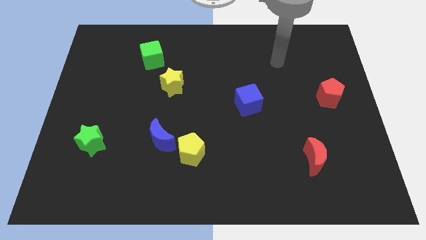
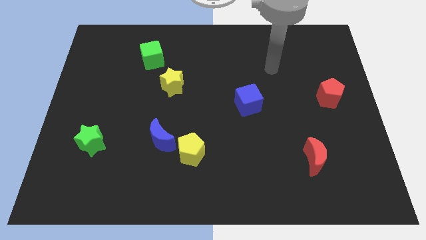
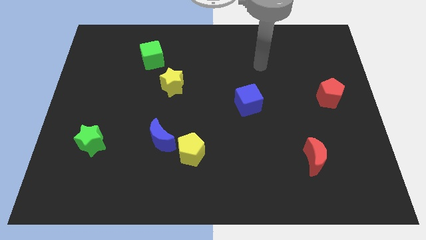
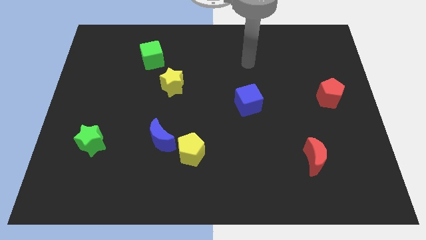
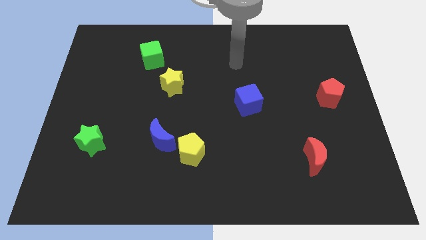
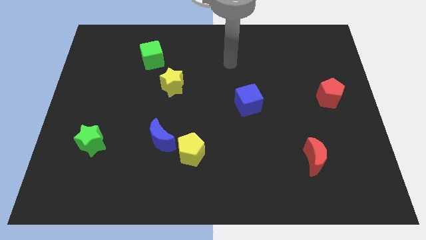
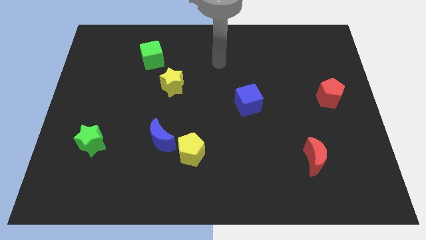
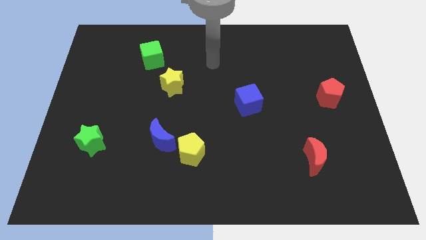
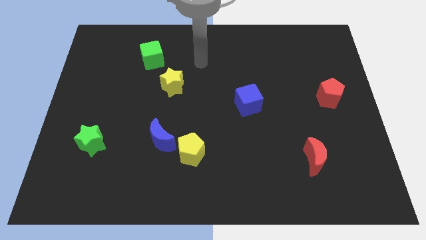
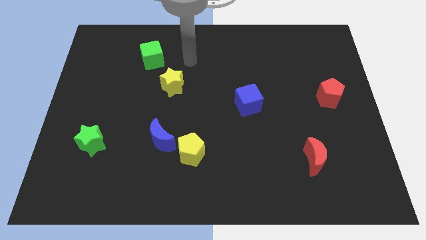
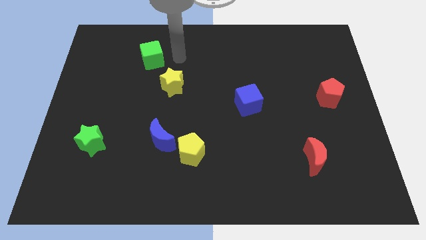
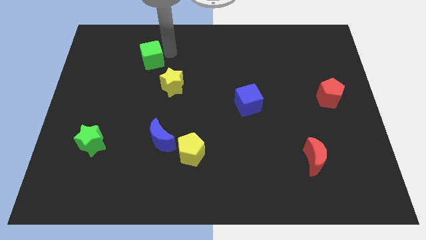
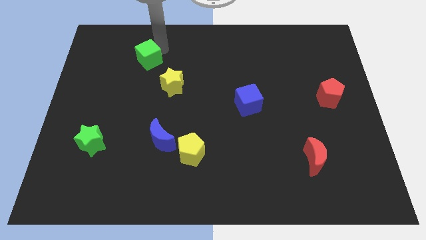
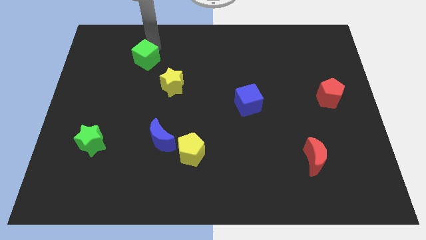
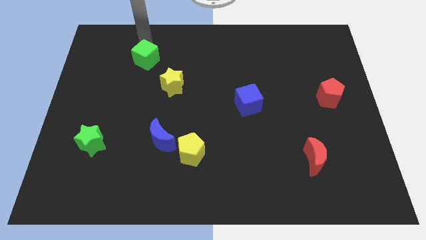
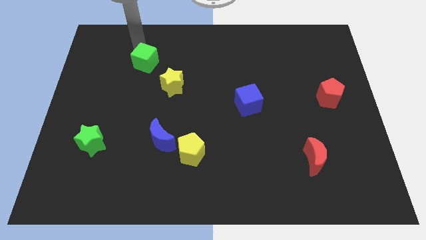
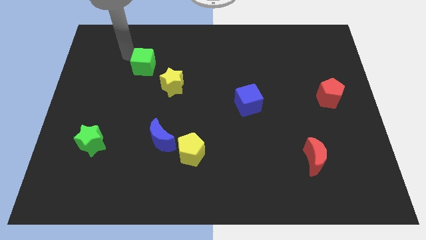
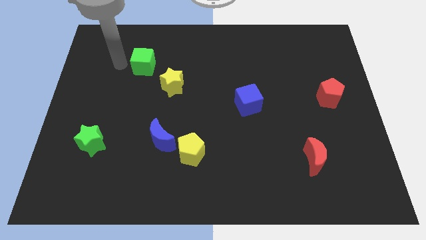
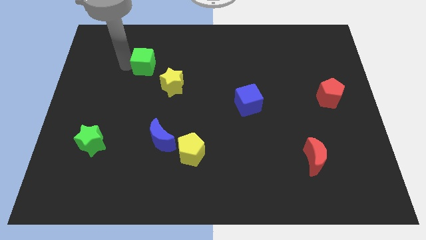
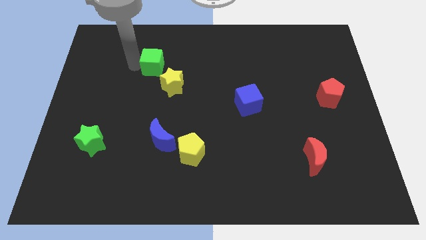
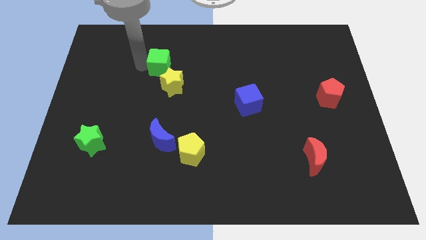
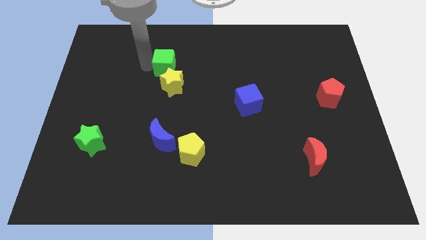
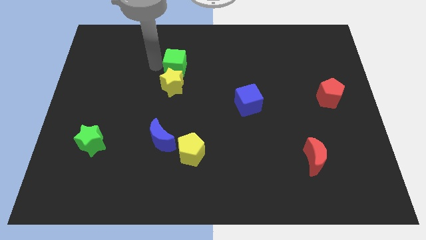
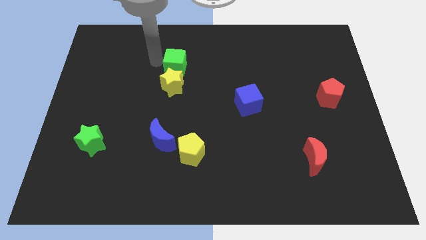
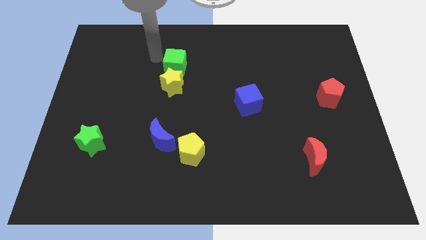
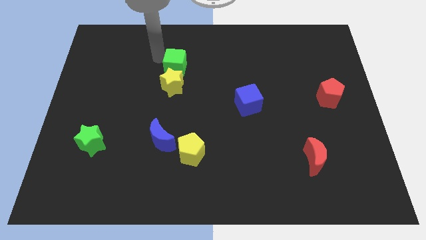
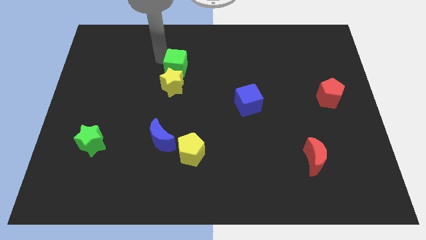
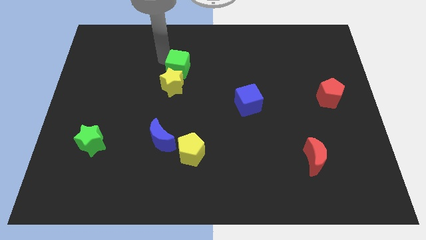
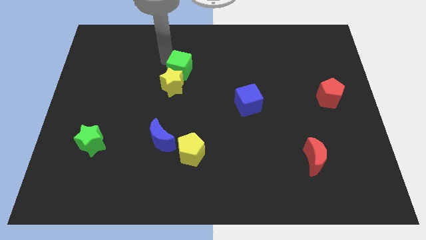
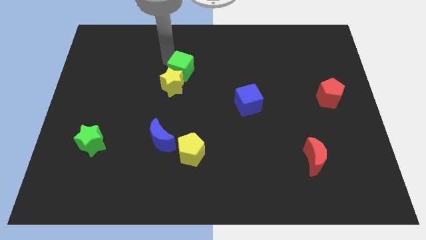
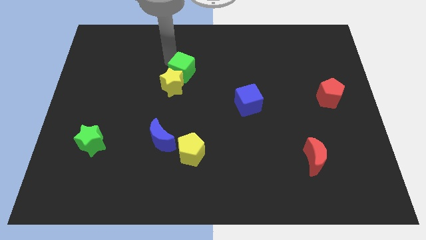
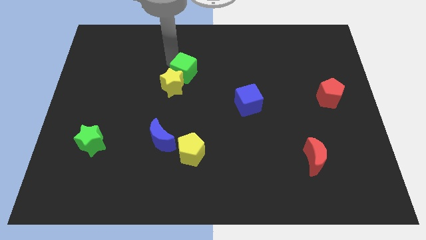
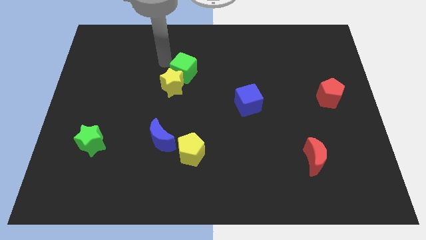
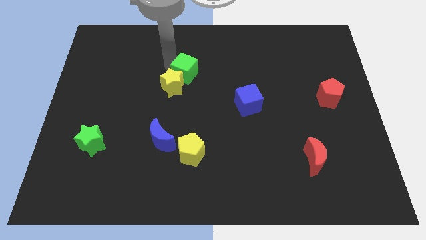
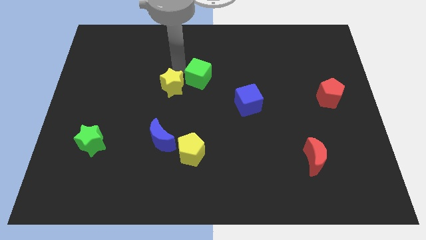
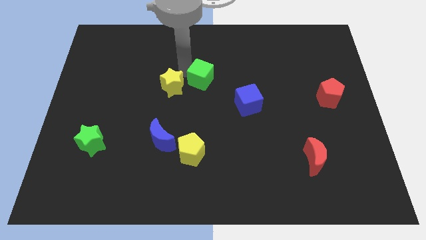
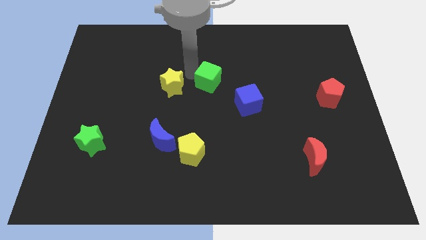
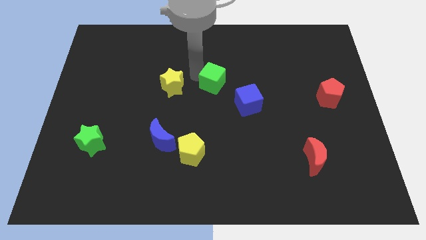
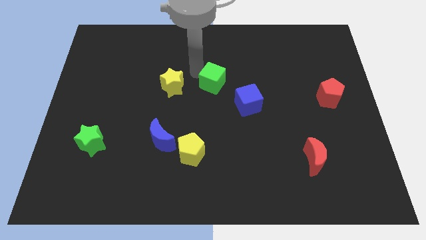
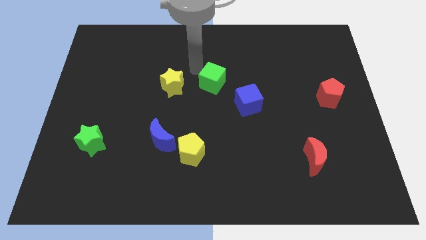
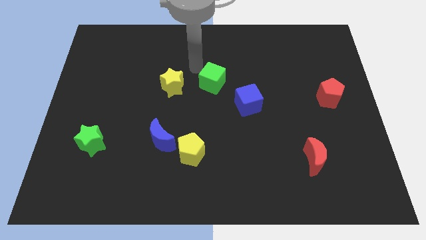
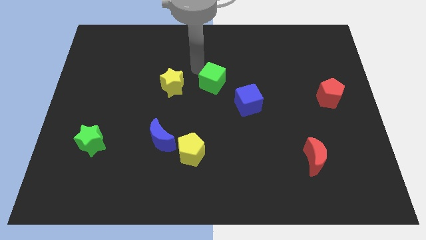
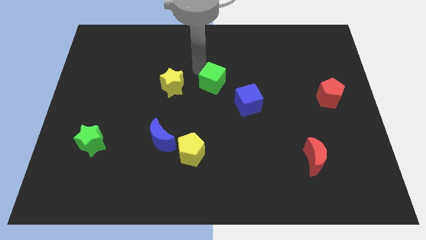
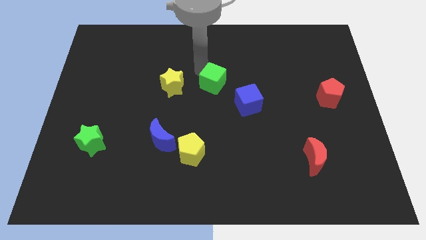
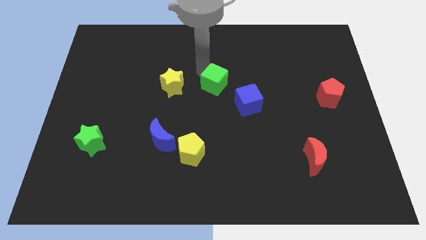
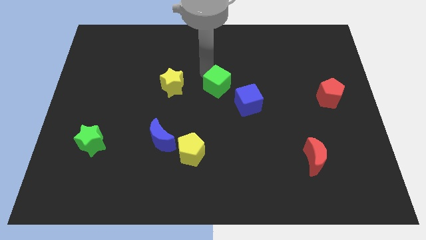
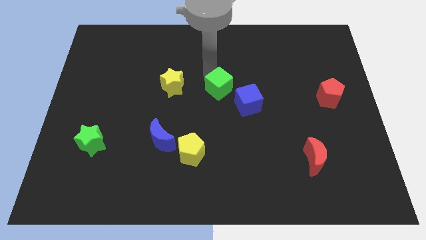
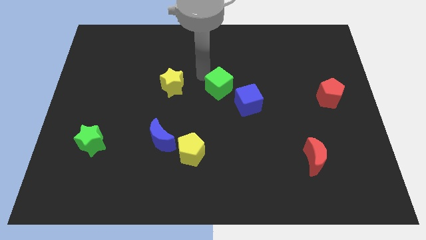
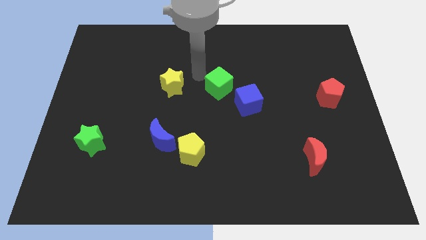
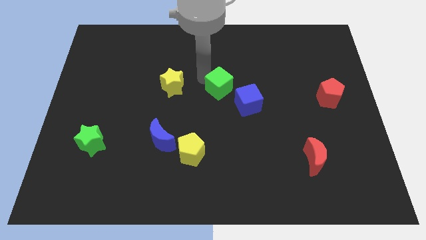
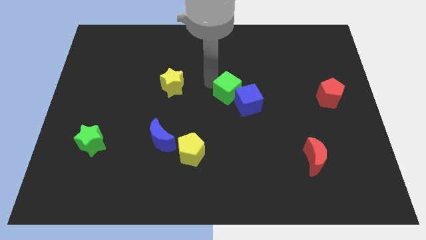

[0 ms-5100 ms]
put the green cube to the blue cube
